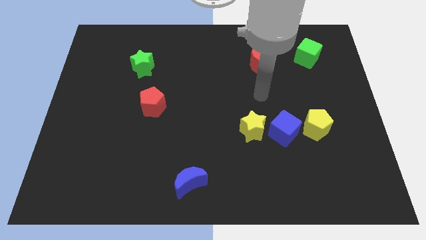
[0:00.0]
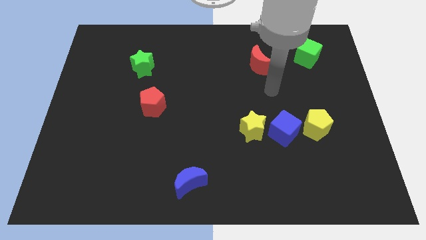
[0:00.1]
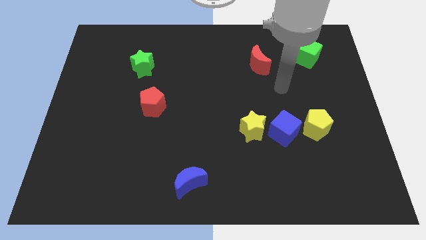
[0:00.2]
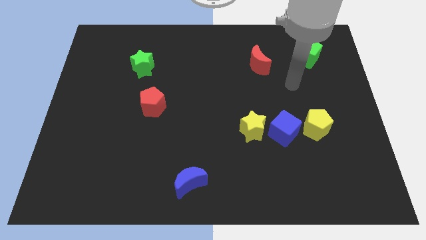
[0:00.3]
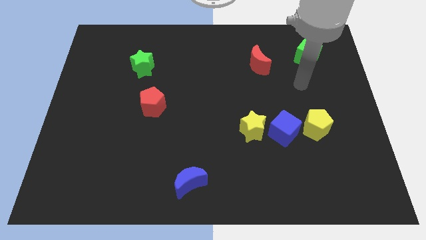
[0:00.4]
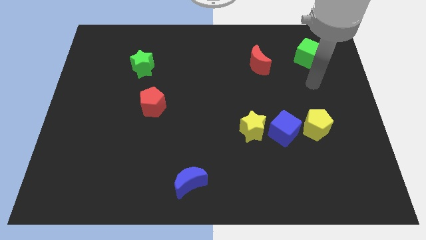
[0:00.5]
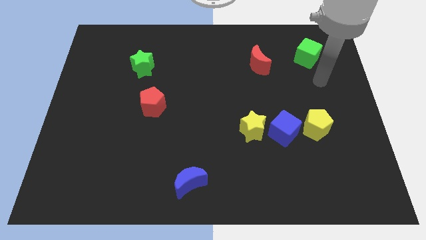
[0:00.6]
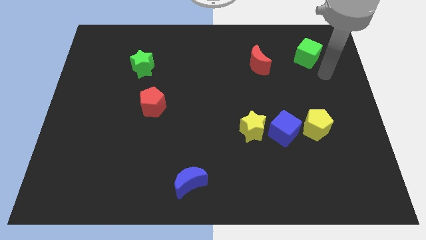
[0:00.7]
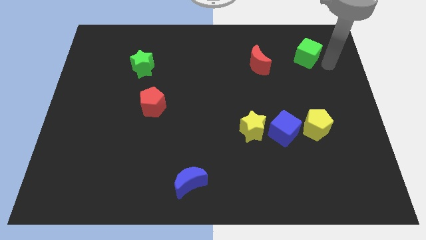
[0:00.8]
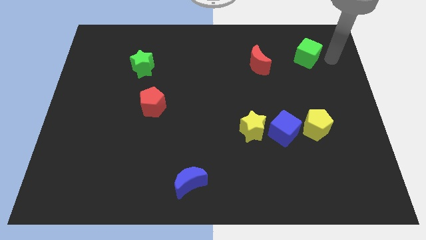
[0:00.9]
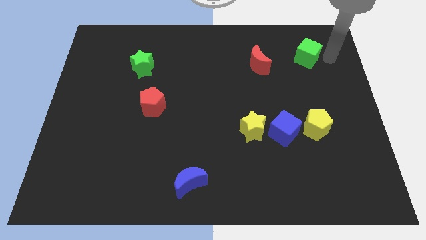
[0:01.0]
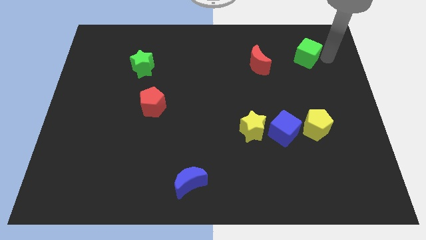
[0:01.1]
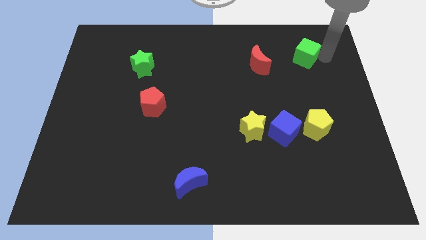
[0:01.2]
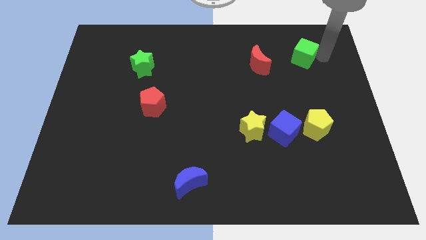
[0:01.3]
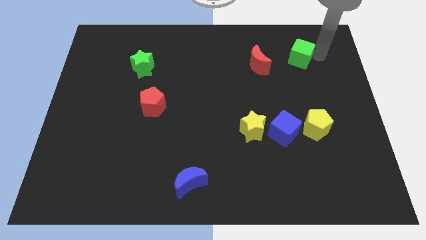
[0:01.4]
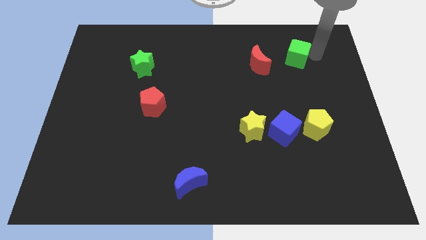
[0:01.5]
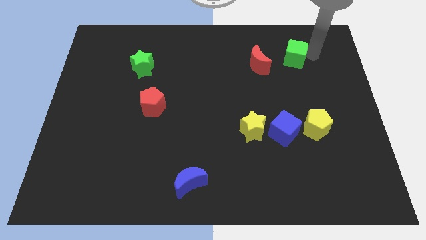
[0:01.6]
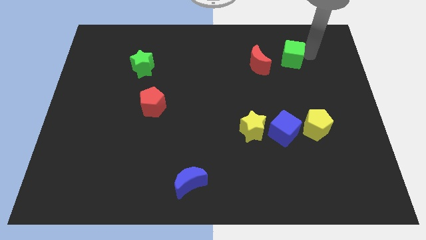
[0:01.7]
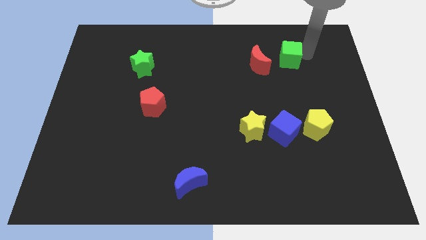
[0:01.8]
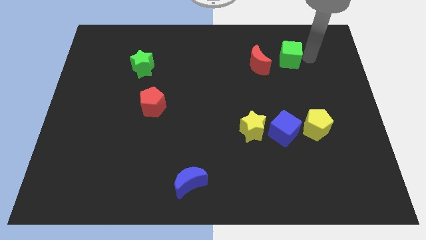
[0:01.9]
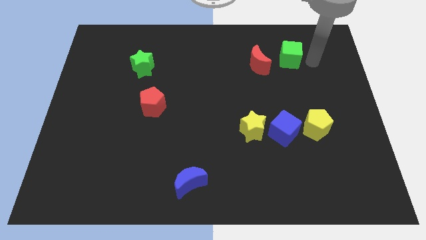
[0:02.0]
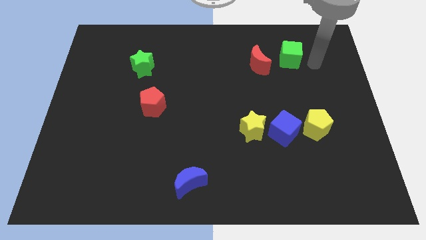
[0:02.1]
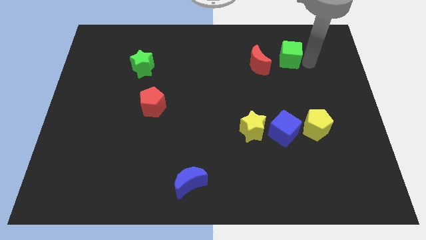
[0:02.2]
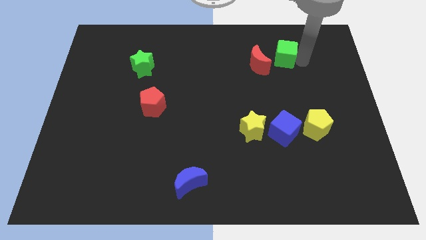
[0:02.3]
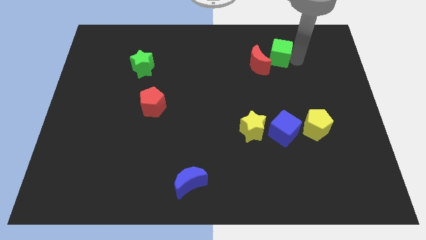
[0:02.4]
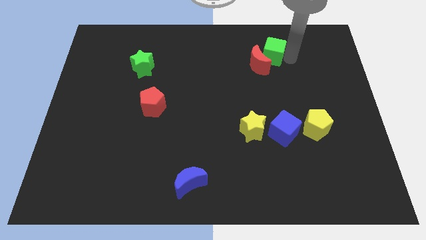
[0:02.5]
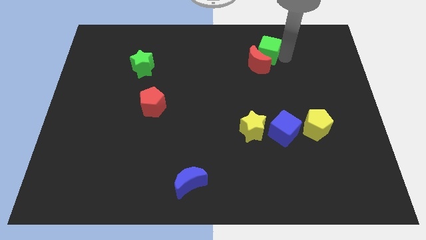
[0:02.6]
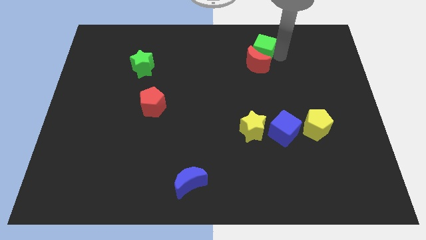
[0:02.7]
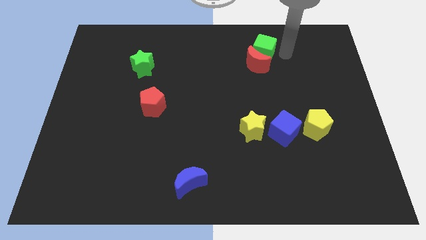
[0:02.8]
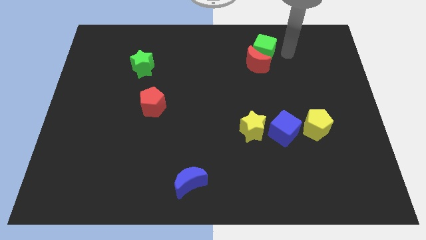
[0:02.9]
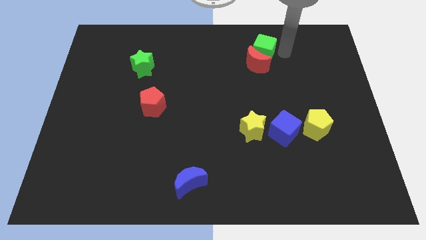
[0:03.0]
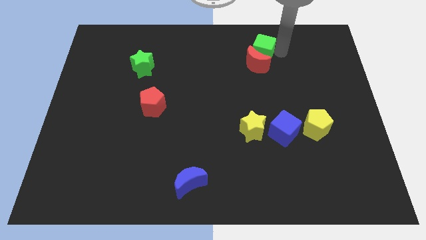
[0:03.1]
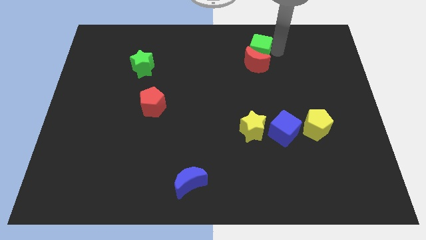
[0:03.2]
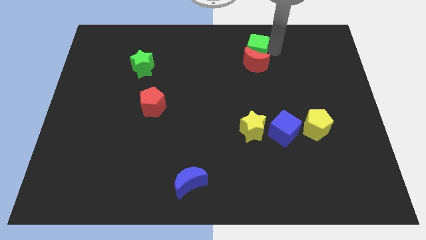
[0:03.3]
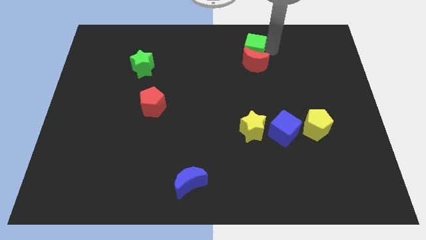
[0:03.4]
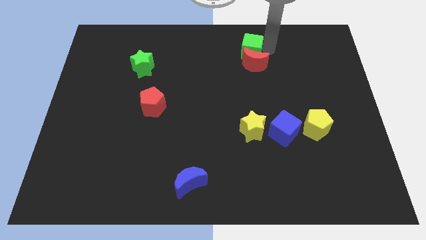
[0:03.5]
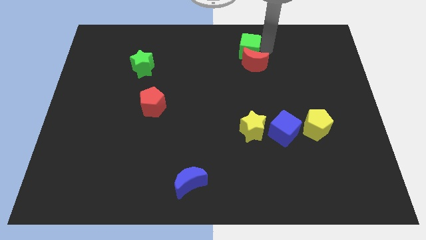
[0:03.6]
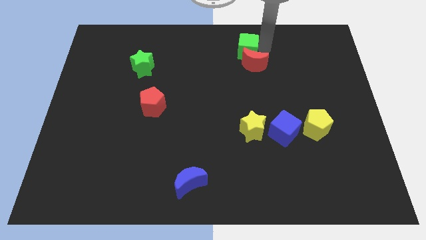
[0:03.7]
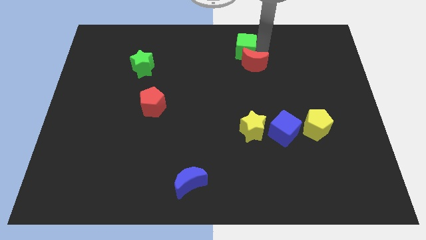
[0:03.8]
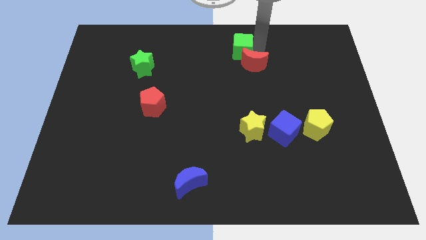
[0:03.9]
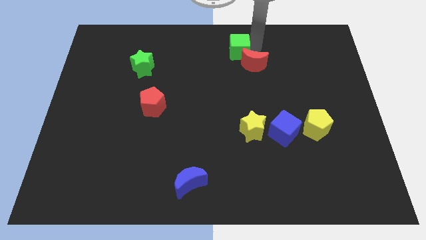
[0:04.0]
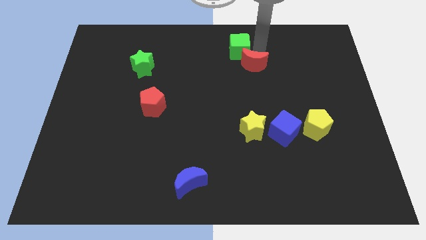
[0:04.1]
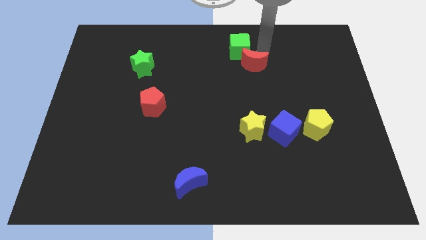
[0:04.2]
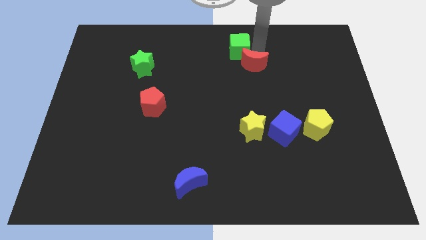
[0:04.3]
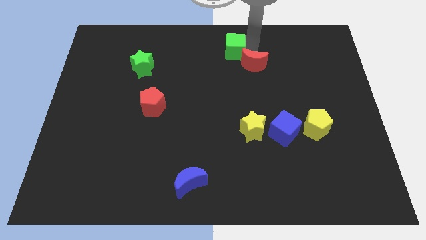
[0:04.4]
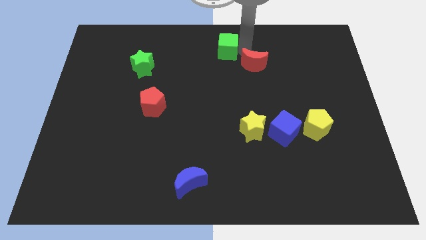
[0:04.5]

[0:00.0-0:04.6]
slide the green cube left

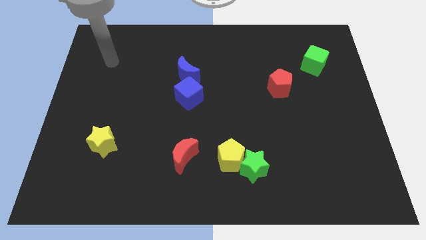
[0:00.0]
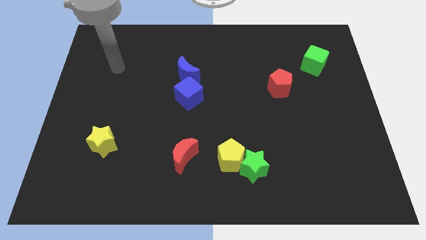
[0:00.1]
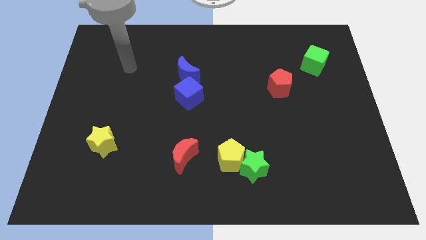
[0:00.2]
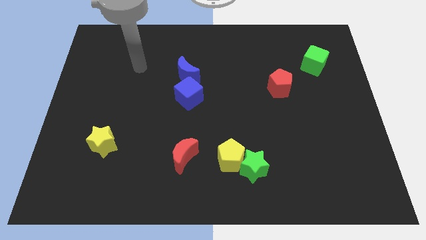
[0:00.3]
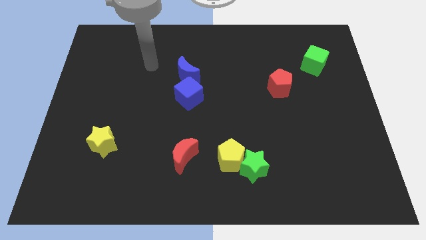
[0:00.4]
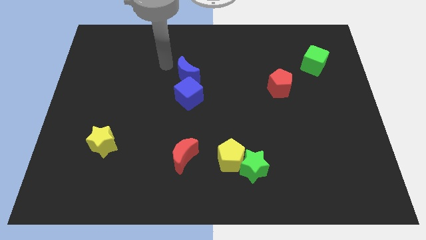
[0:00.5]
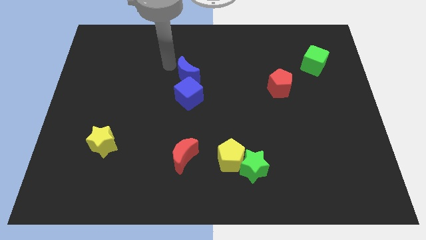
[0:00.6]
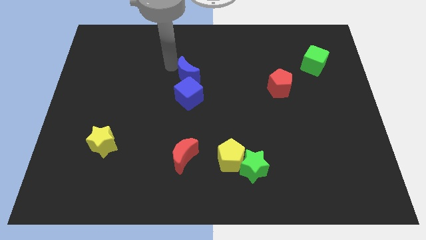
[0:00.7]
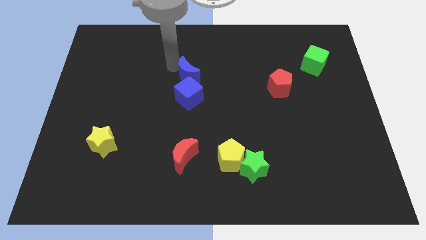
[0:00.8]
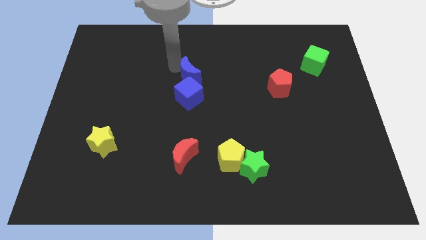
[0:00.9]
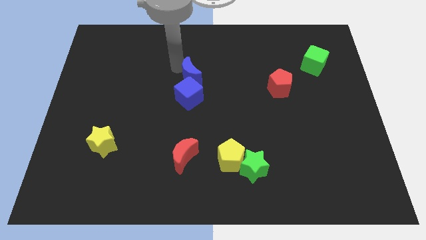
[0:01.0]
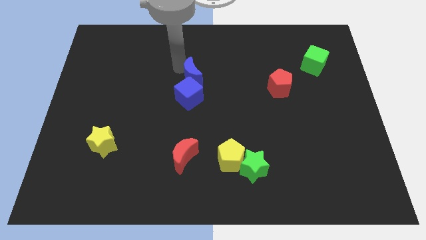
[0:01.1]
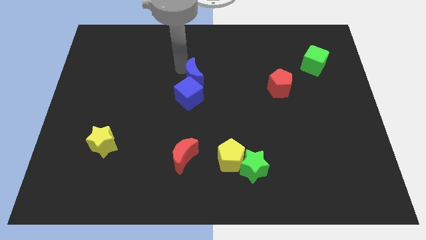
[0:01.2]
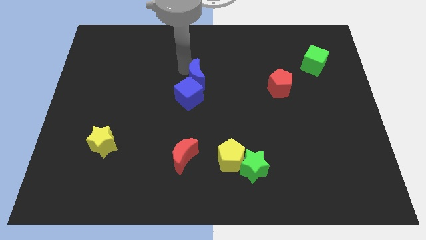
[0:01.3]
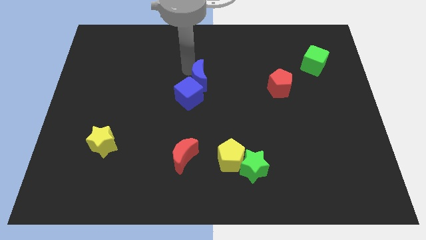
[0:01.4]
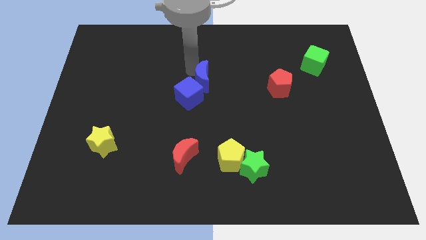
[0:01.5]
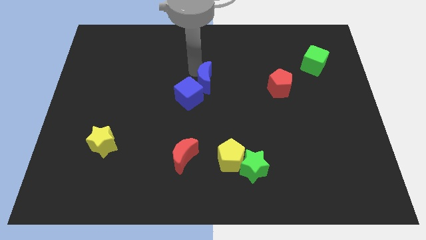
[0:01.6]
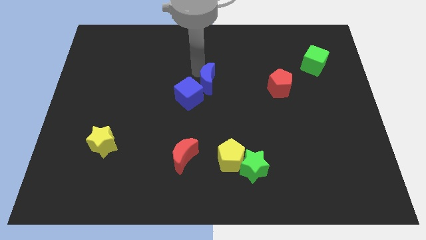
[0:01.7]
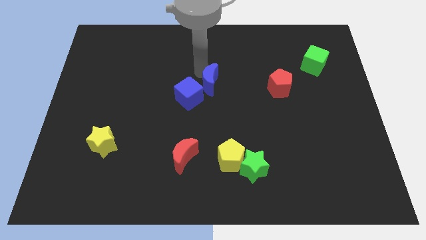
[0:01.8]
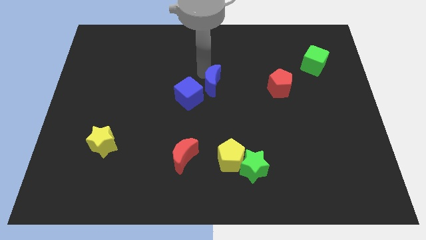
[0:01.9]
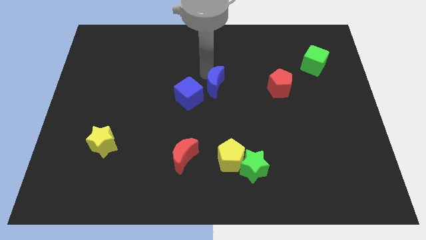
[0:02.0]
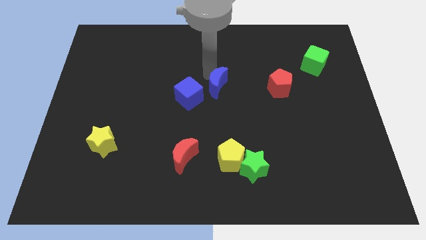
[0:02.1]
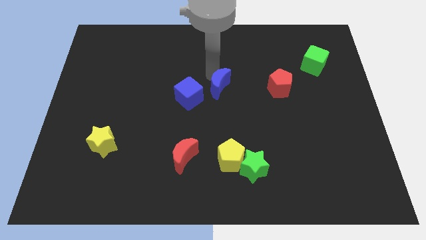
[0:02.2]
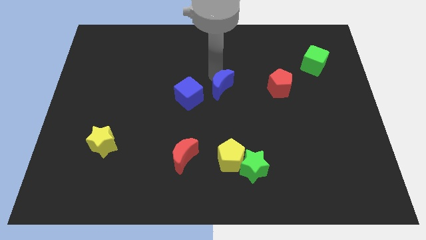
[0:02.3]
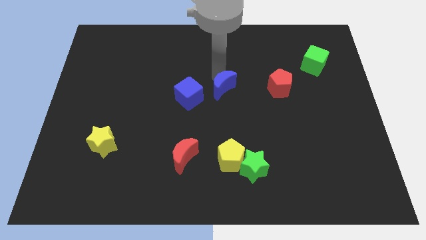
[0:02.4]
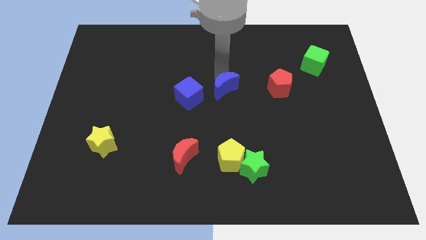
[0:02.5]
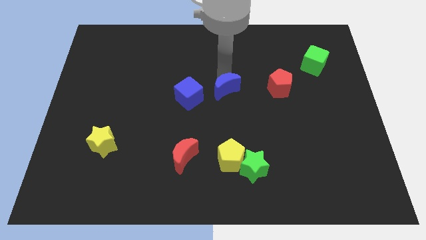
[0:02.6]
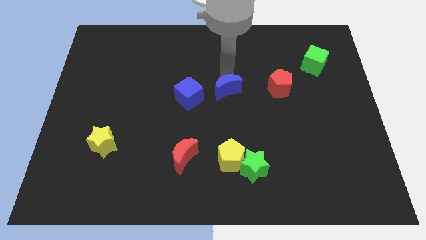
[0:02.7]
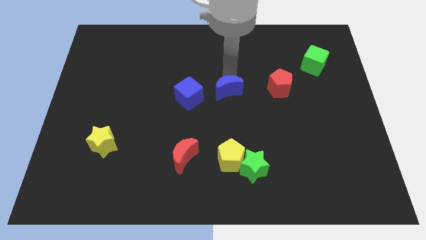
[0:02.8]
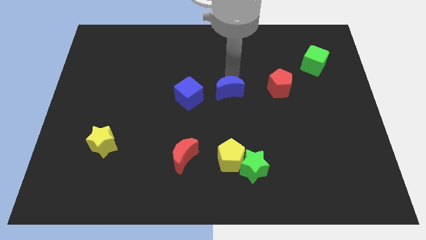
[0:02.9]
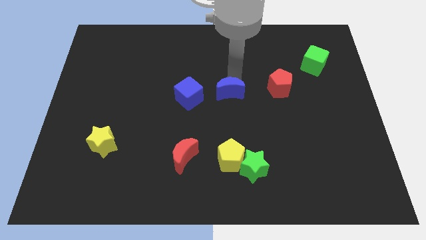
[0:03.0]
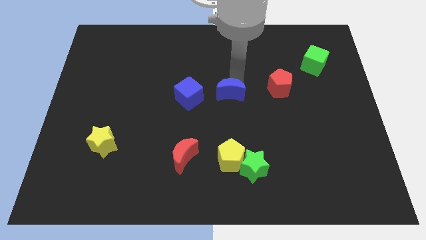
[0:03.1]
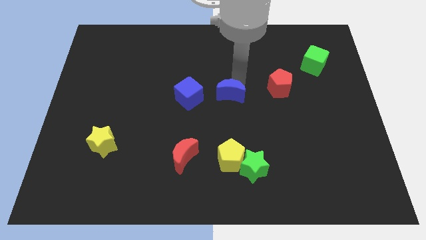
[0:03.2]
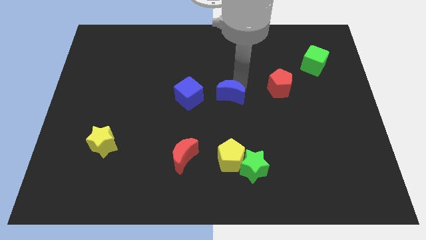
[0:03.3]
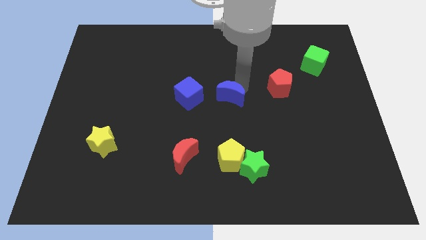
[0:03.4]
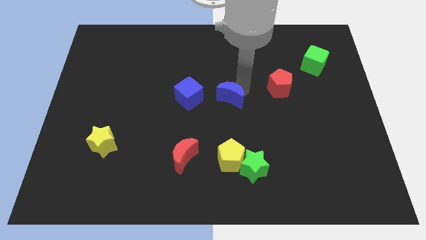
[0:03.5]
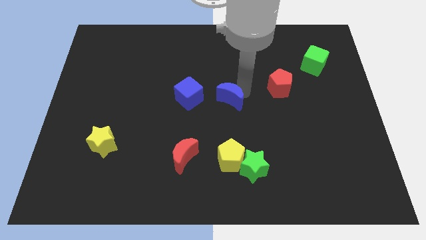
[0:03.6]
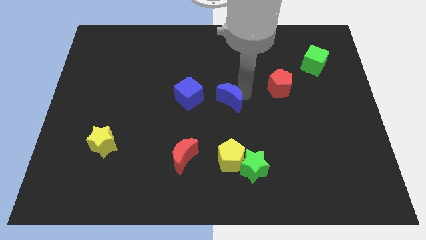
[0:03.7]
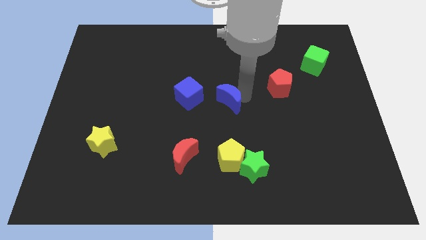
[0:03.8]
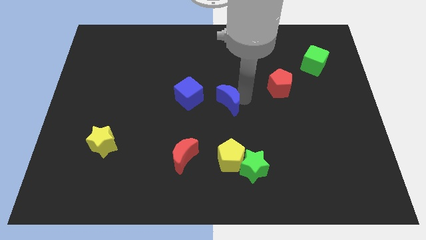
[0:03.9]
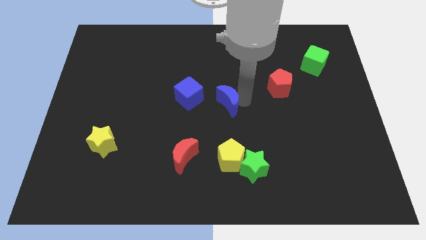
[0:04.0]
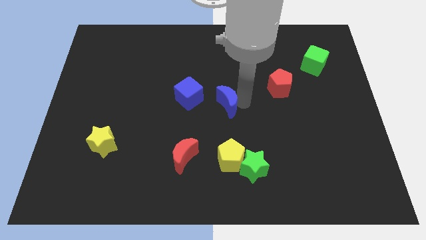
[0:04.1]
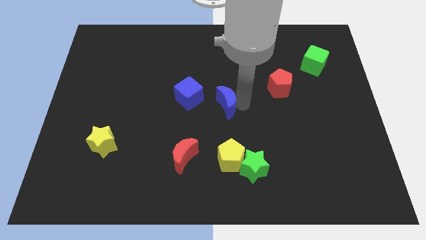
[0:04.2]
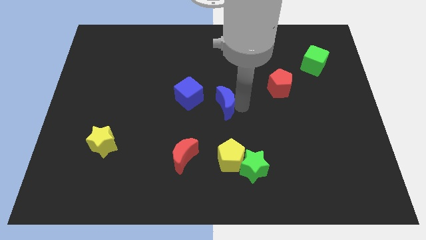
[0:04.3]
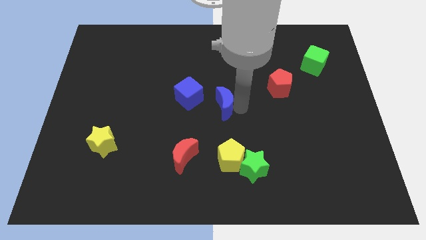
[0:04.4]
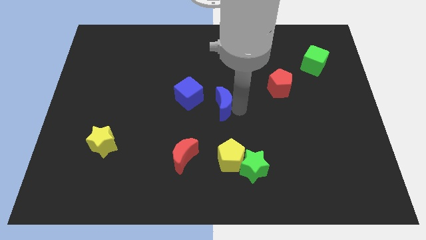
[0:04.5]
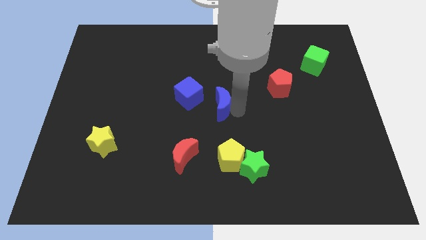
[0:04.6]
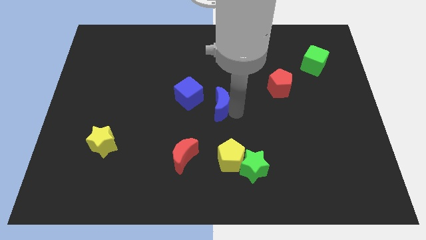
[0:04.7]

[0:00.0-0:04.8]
move the blue moon slightly downwards
